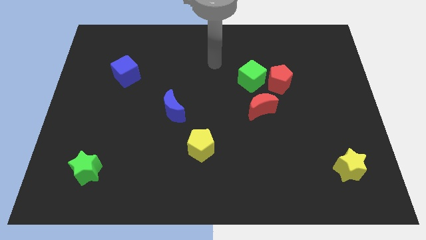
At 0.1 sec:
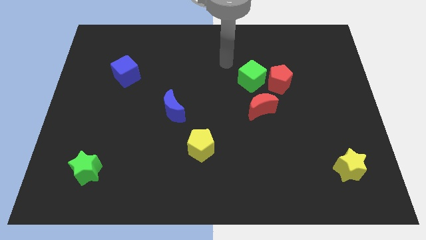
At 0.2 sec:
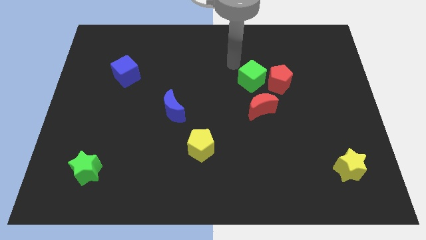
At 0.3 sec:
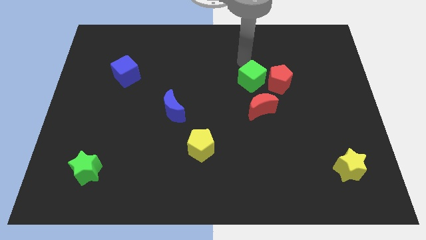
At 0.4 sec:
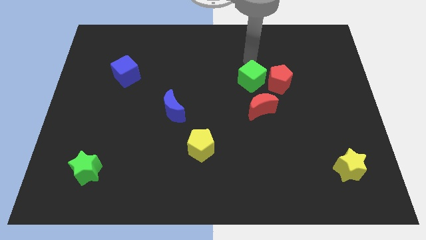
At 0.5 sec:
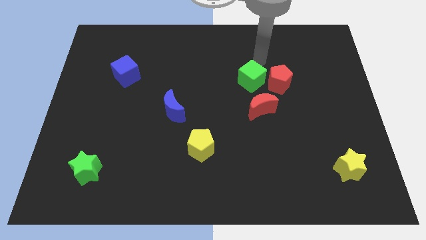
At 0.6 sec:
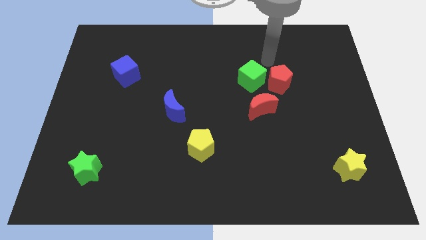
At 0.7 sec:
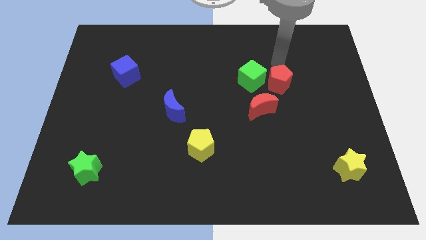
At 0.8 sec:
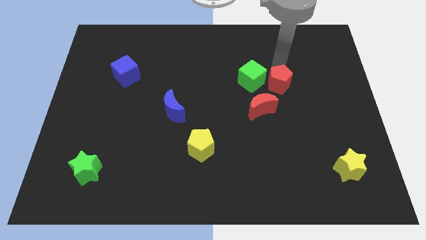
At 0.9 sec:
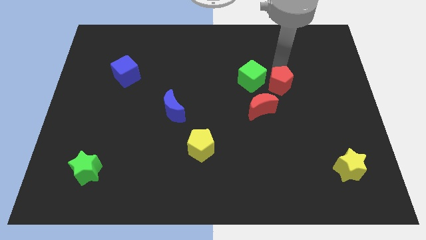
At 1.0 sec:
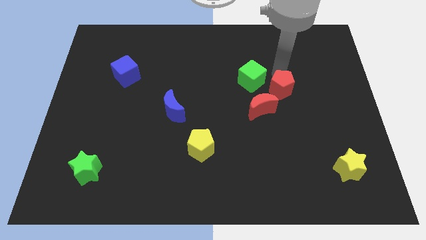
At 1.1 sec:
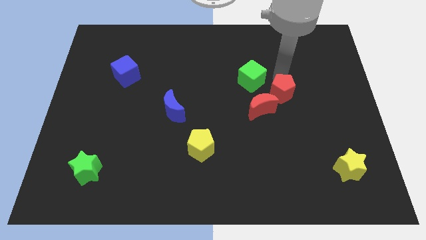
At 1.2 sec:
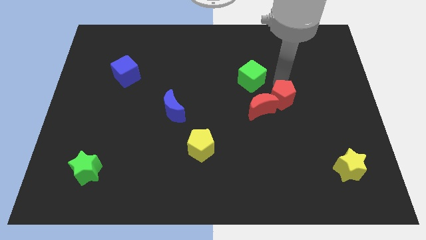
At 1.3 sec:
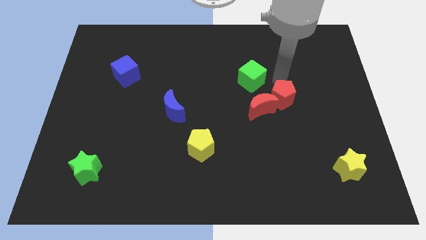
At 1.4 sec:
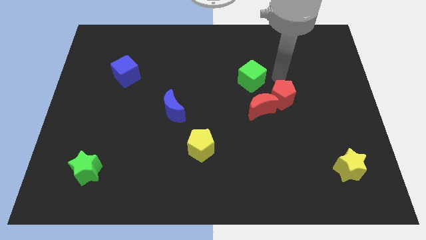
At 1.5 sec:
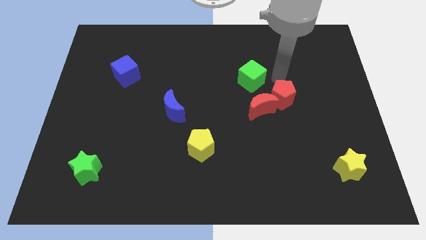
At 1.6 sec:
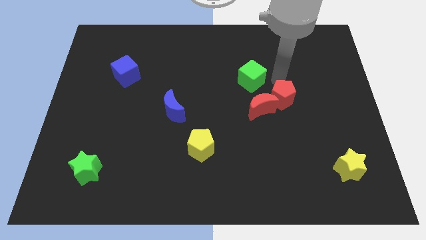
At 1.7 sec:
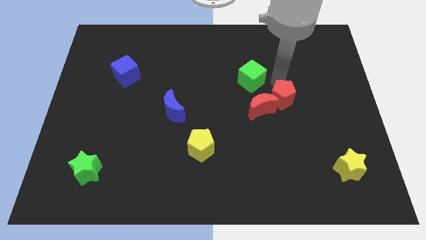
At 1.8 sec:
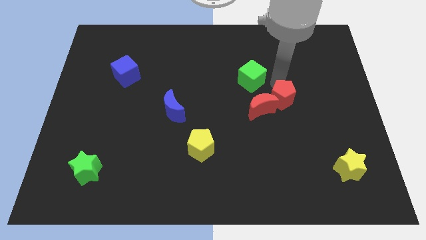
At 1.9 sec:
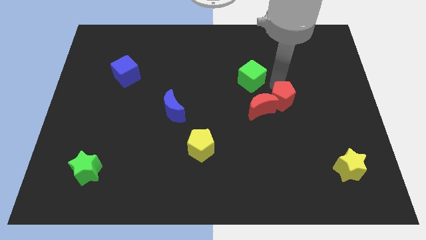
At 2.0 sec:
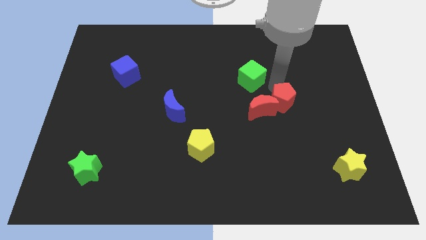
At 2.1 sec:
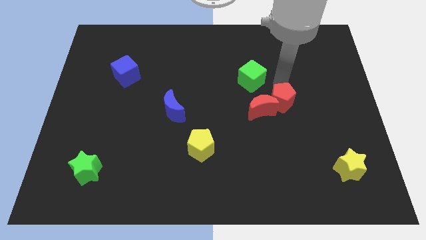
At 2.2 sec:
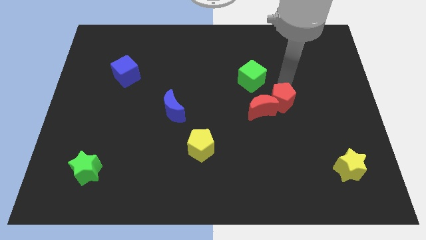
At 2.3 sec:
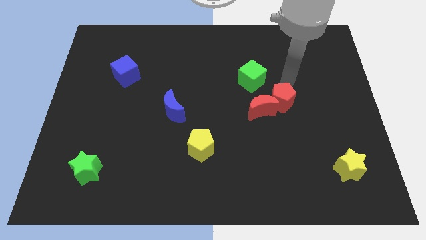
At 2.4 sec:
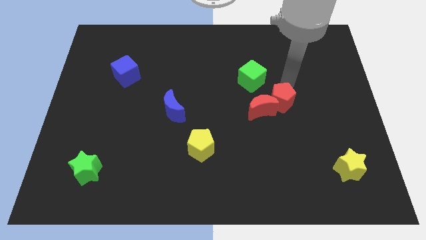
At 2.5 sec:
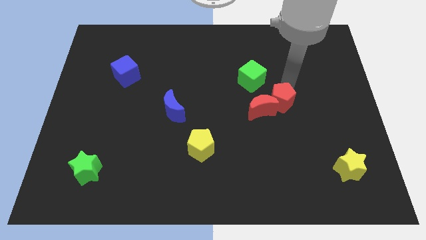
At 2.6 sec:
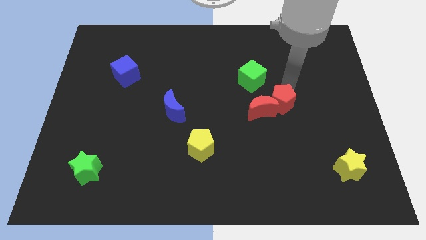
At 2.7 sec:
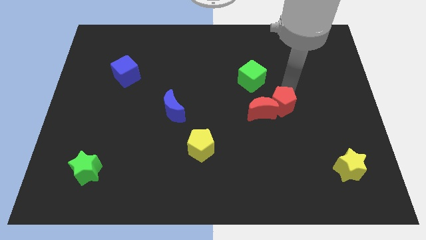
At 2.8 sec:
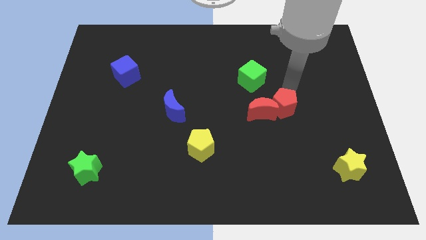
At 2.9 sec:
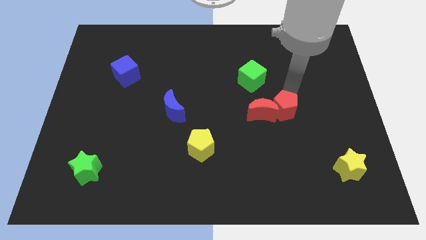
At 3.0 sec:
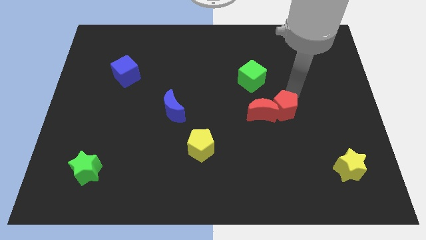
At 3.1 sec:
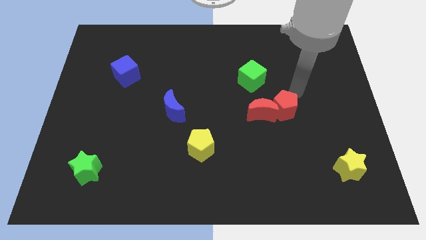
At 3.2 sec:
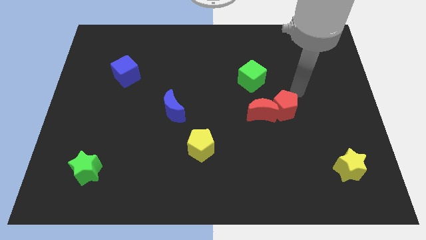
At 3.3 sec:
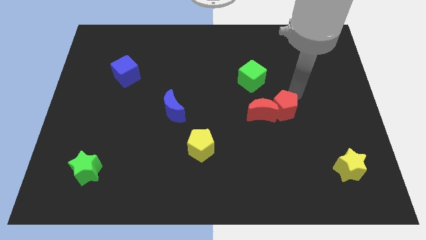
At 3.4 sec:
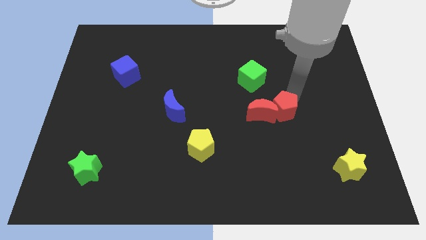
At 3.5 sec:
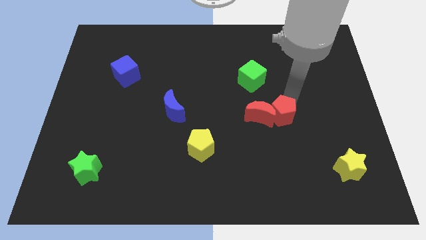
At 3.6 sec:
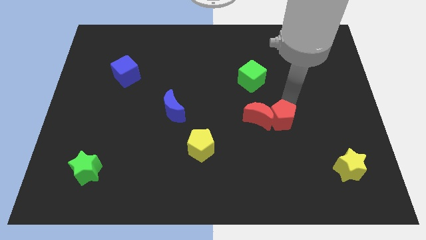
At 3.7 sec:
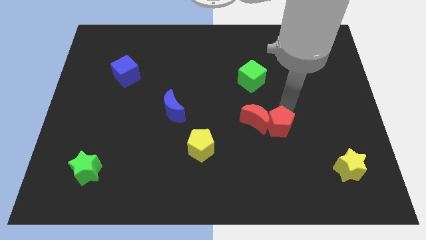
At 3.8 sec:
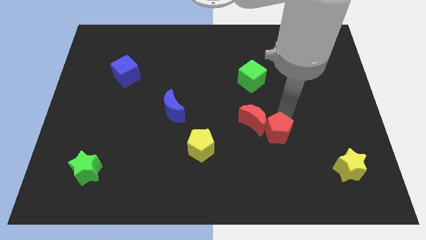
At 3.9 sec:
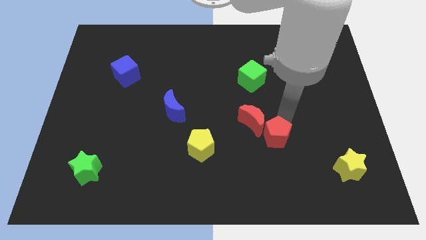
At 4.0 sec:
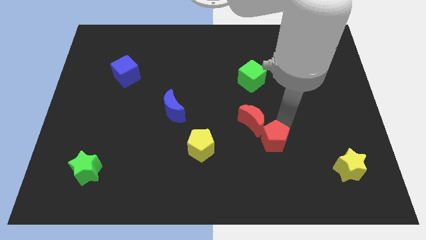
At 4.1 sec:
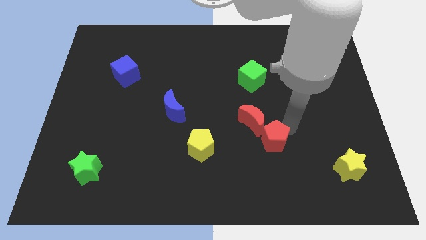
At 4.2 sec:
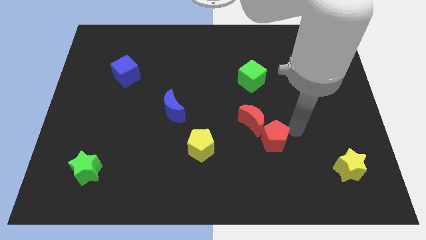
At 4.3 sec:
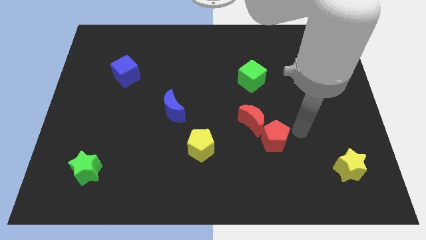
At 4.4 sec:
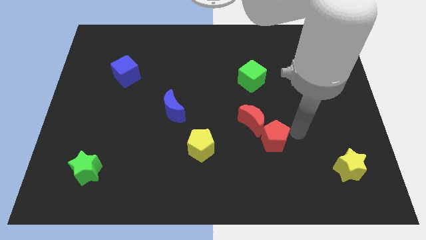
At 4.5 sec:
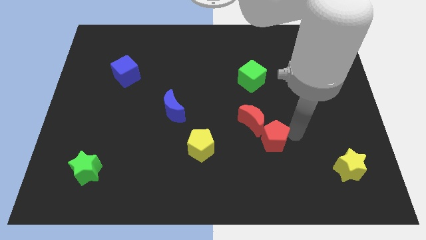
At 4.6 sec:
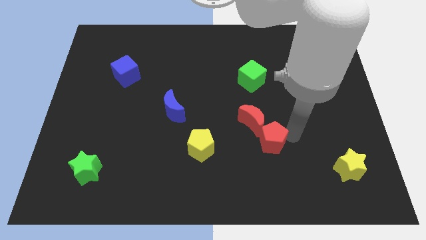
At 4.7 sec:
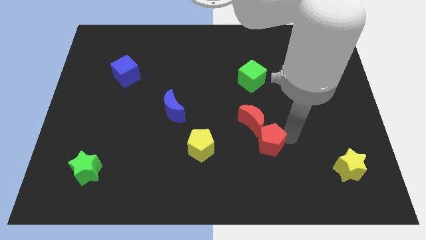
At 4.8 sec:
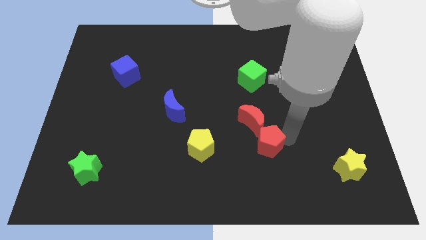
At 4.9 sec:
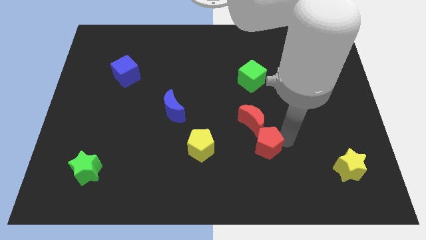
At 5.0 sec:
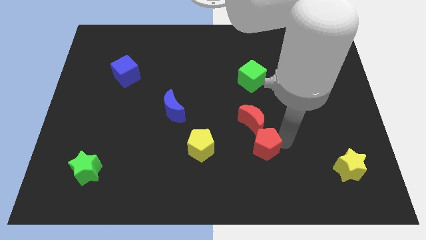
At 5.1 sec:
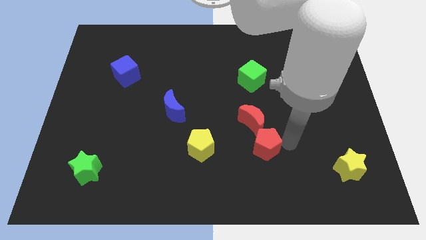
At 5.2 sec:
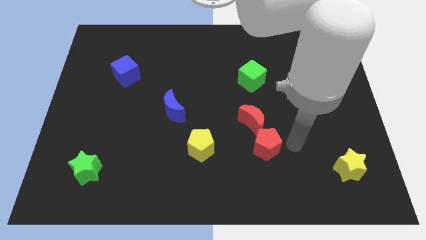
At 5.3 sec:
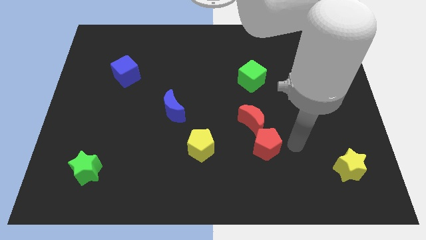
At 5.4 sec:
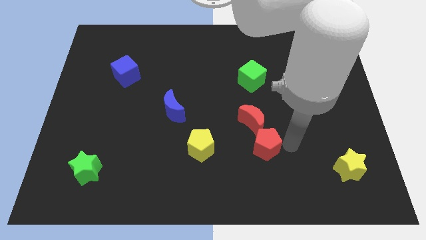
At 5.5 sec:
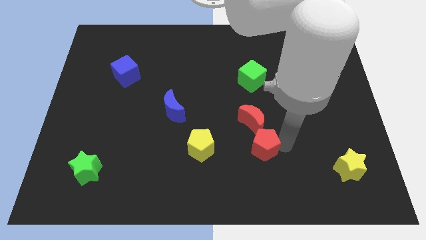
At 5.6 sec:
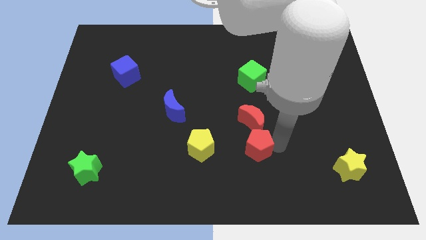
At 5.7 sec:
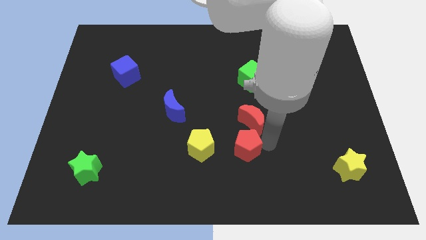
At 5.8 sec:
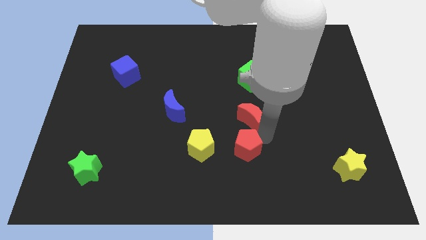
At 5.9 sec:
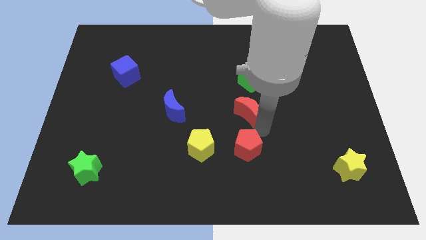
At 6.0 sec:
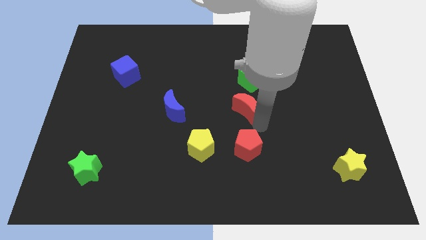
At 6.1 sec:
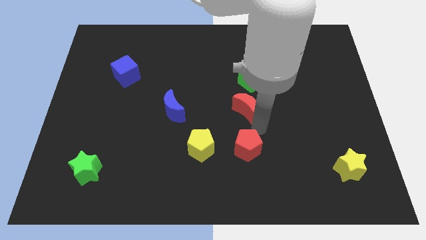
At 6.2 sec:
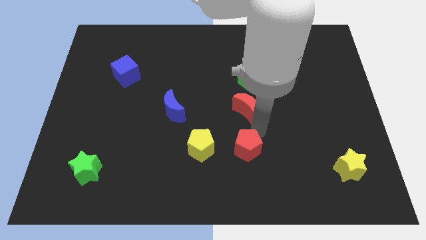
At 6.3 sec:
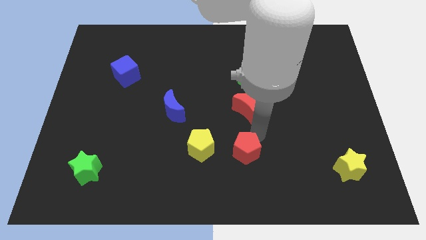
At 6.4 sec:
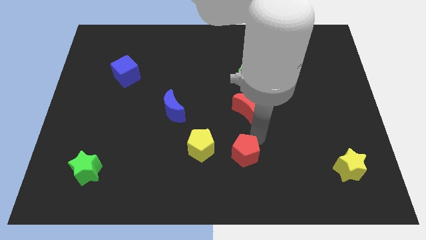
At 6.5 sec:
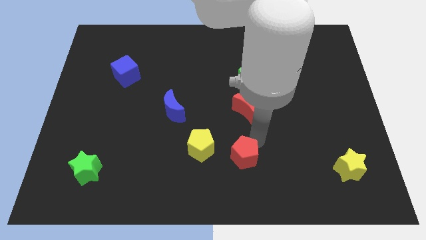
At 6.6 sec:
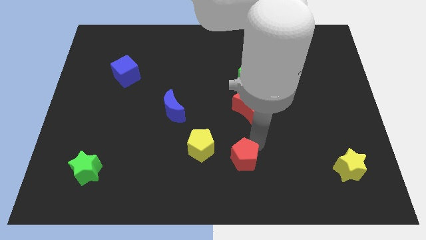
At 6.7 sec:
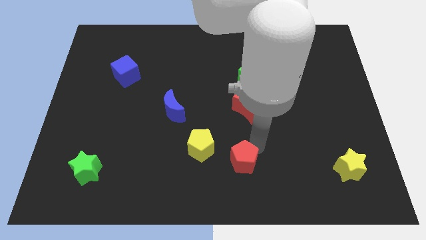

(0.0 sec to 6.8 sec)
push the red pentagon to the bottom side

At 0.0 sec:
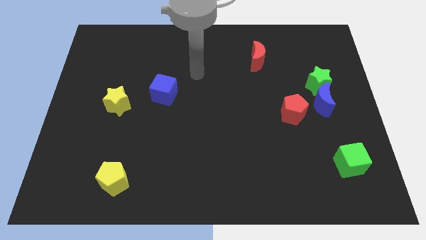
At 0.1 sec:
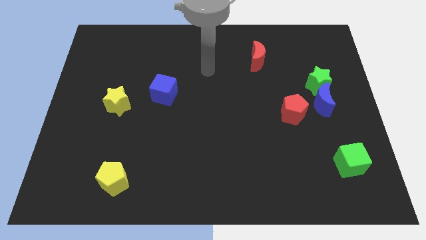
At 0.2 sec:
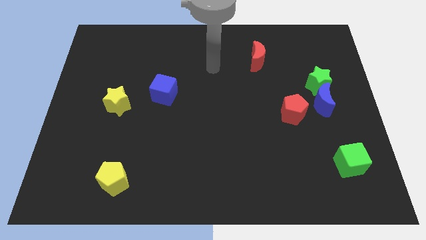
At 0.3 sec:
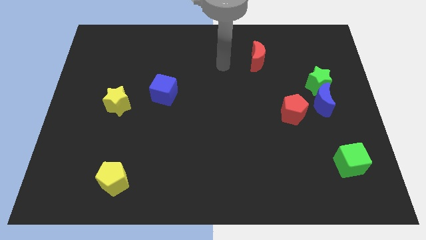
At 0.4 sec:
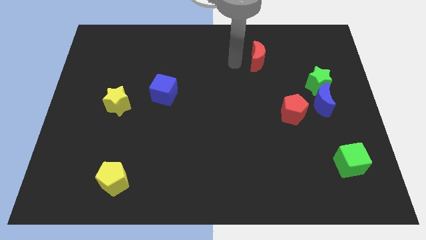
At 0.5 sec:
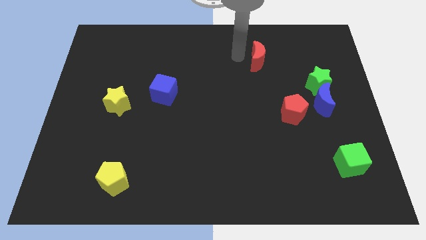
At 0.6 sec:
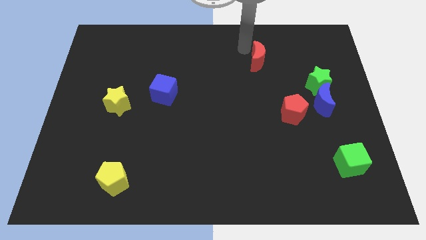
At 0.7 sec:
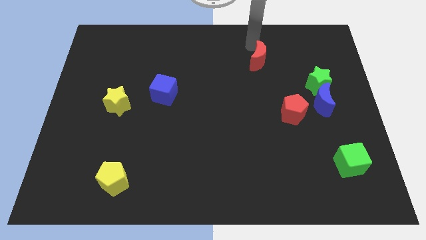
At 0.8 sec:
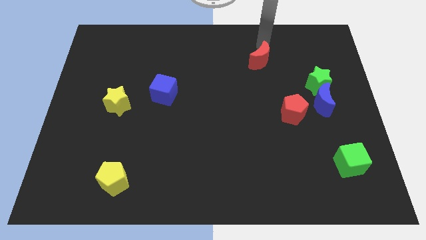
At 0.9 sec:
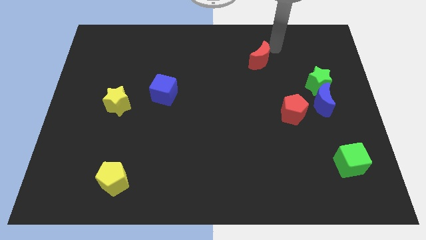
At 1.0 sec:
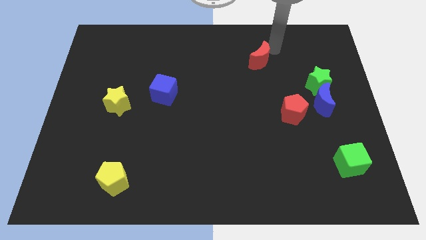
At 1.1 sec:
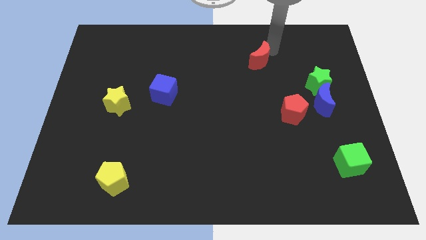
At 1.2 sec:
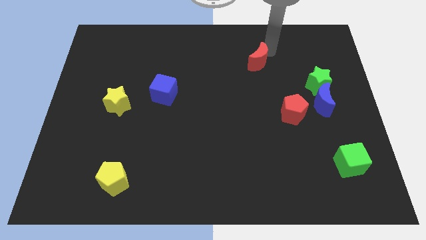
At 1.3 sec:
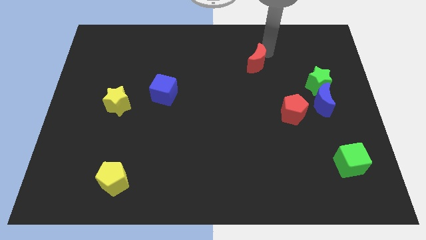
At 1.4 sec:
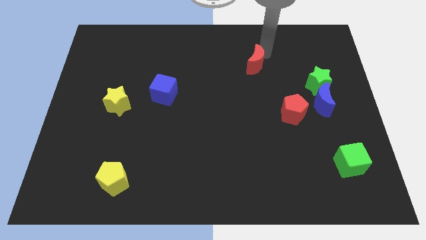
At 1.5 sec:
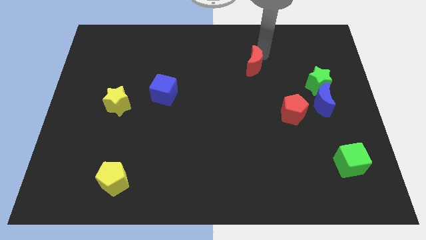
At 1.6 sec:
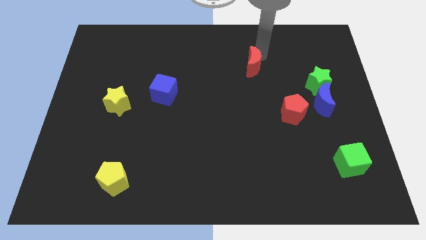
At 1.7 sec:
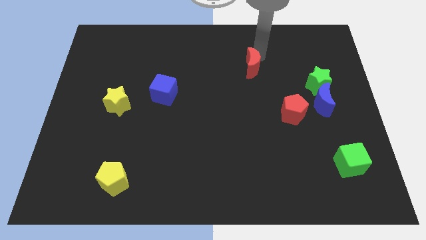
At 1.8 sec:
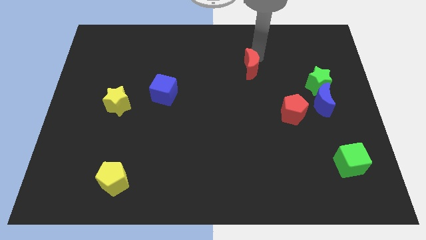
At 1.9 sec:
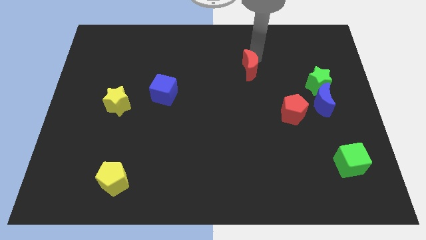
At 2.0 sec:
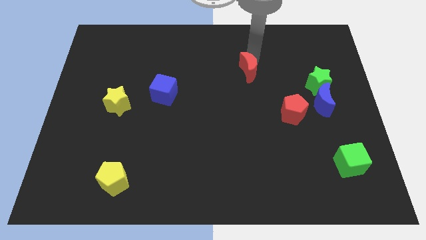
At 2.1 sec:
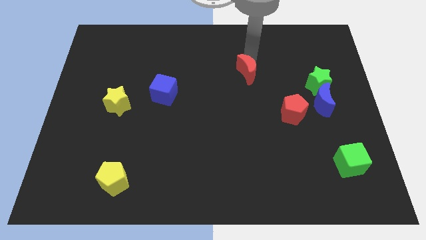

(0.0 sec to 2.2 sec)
push the red moon to the middle of the board
